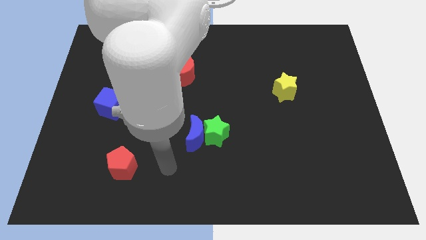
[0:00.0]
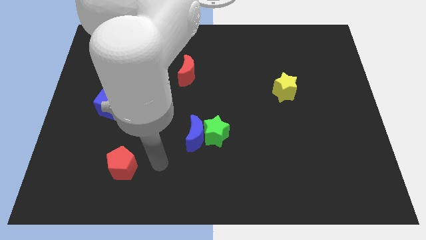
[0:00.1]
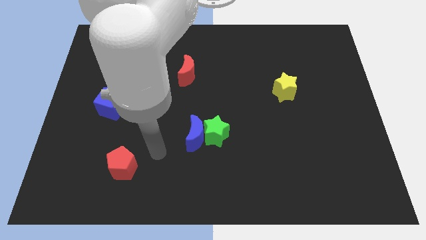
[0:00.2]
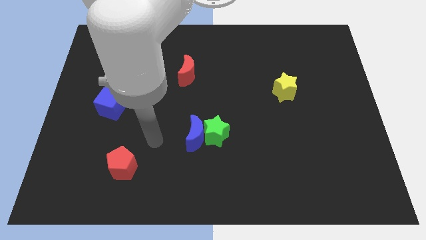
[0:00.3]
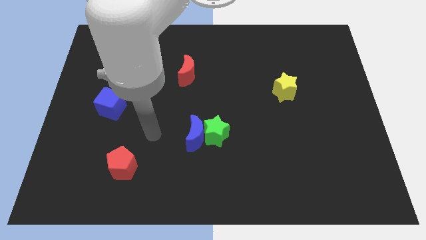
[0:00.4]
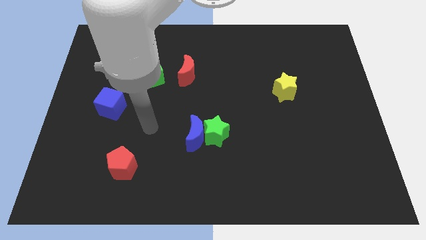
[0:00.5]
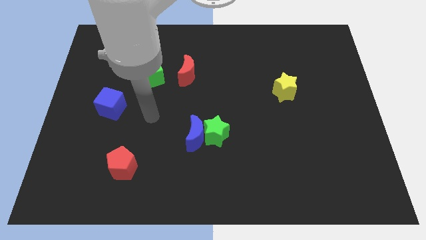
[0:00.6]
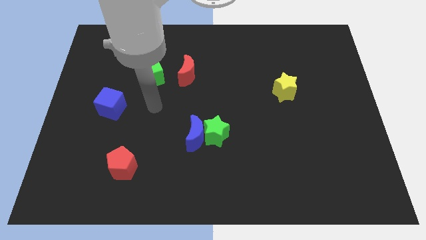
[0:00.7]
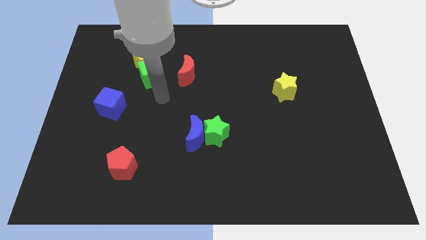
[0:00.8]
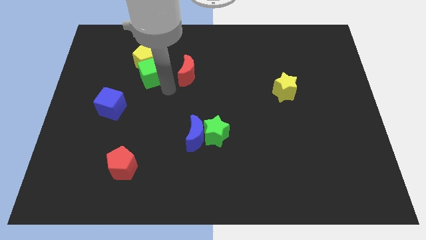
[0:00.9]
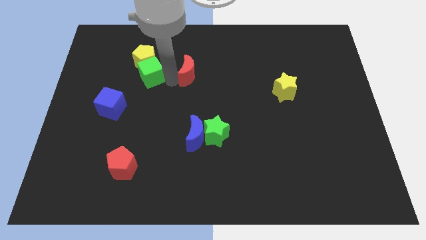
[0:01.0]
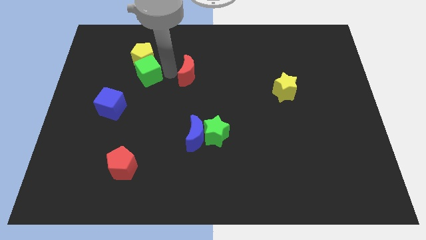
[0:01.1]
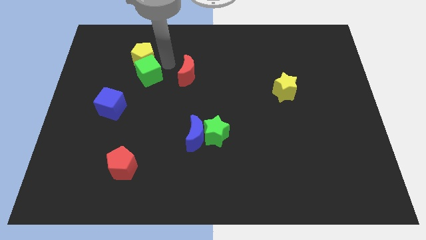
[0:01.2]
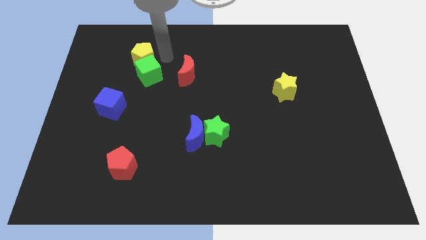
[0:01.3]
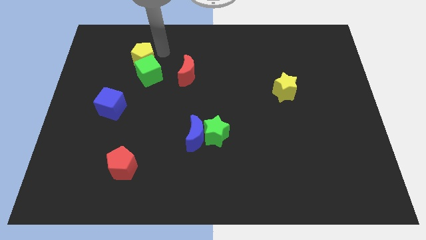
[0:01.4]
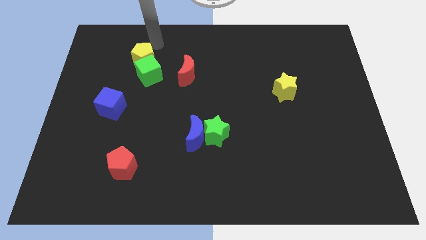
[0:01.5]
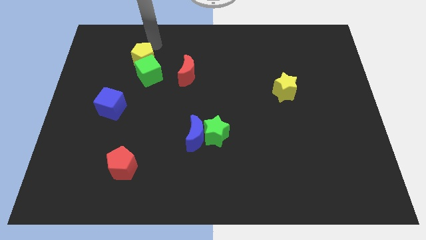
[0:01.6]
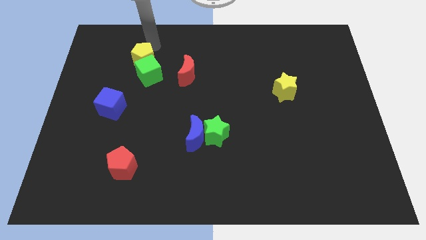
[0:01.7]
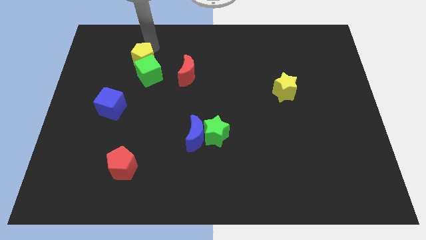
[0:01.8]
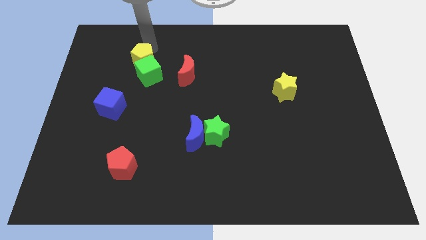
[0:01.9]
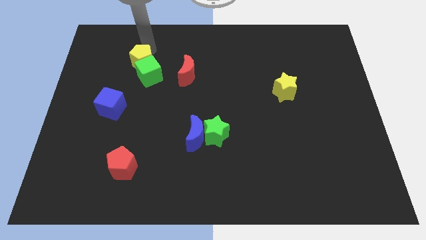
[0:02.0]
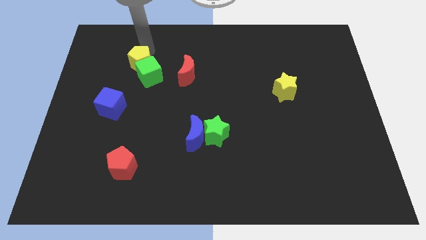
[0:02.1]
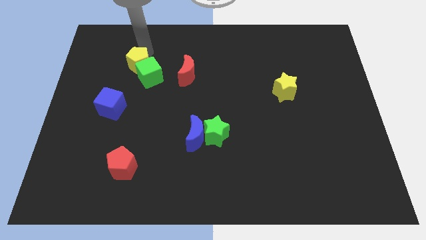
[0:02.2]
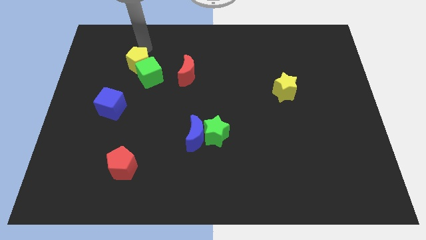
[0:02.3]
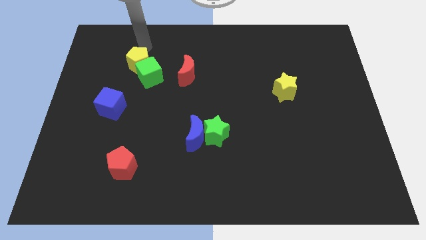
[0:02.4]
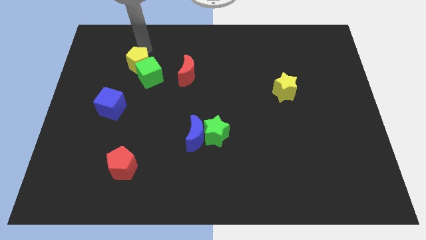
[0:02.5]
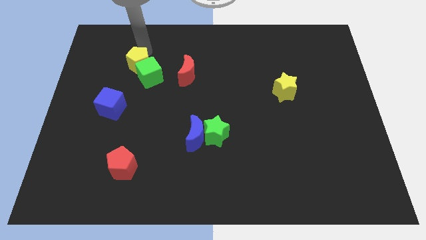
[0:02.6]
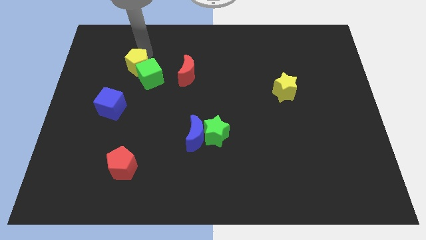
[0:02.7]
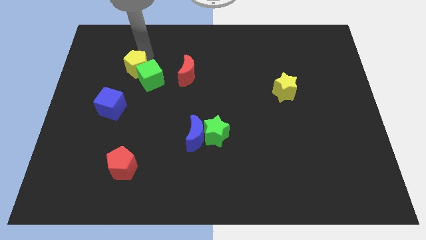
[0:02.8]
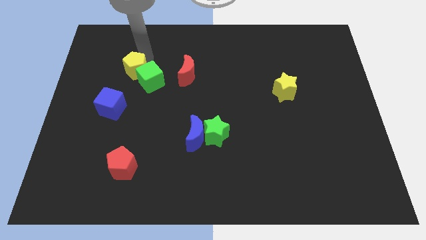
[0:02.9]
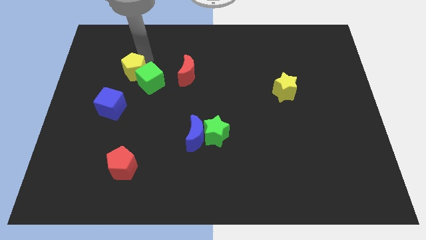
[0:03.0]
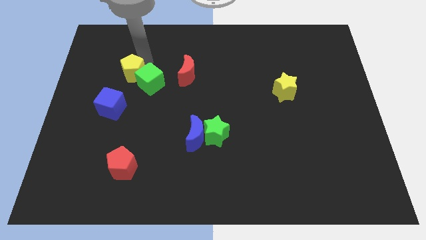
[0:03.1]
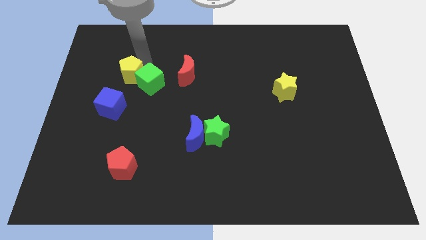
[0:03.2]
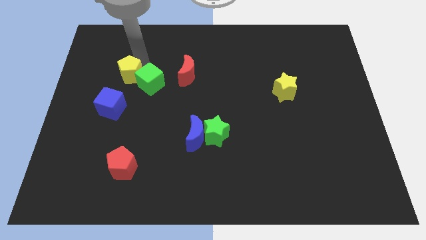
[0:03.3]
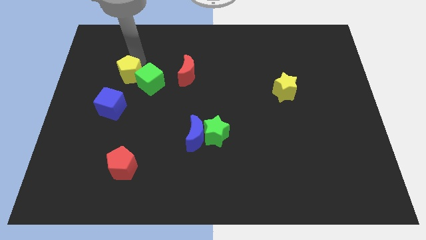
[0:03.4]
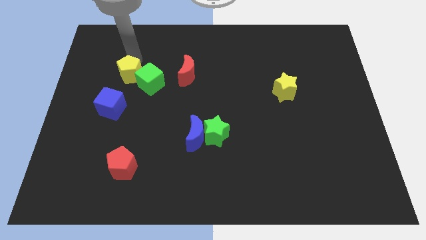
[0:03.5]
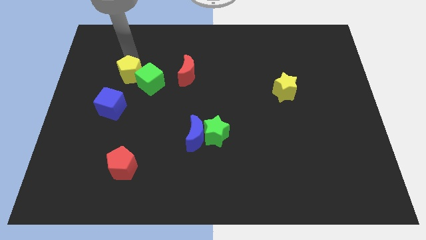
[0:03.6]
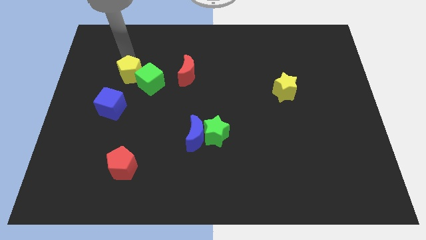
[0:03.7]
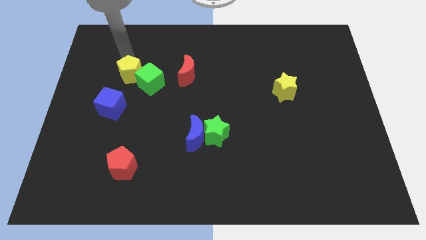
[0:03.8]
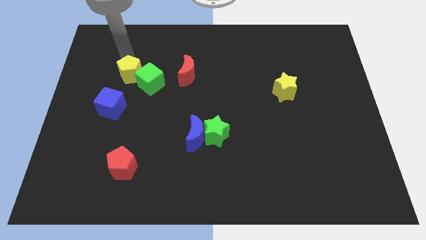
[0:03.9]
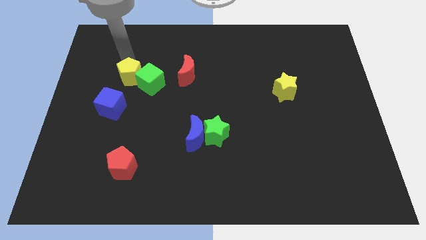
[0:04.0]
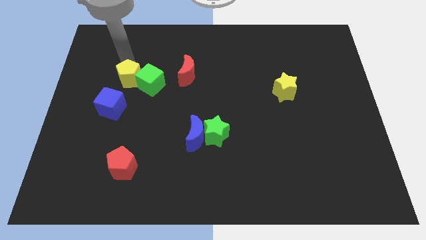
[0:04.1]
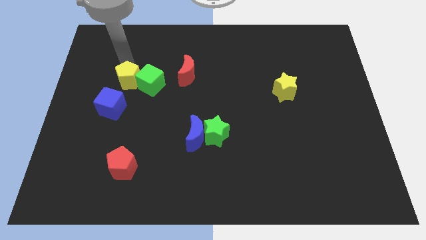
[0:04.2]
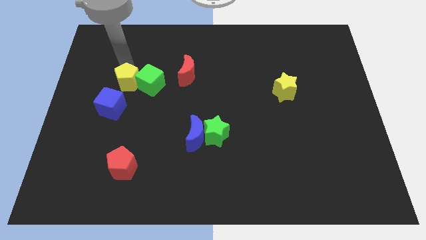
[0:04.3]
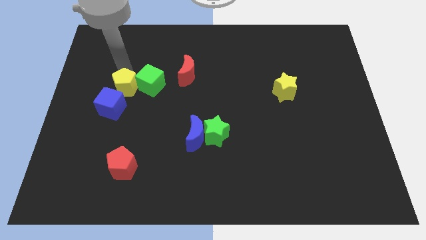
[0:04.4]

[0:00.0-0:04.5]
move the yellow pentagon downwards slightly

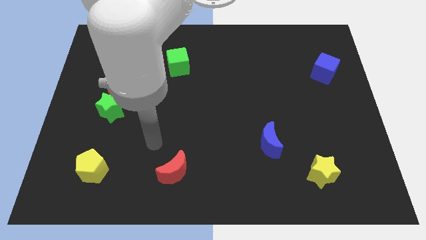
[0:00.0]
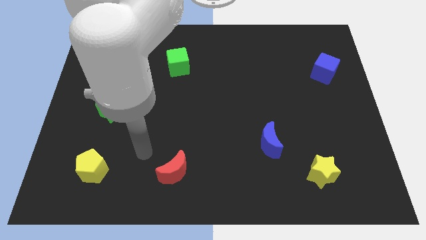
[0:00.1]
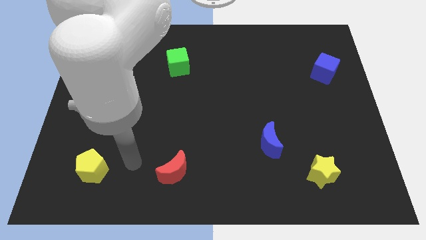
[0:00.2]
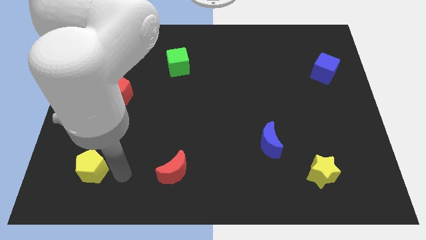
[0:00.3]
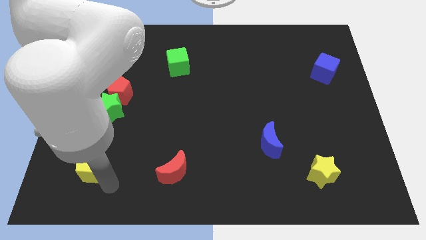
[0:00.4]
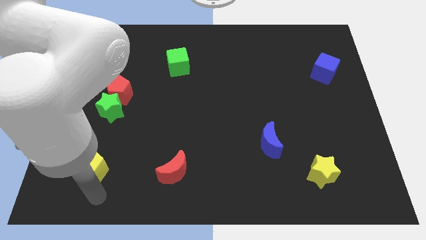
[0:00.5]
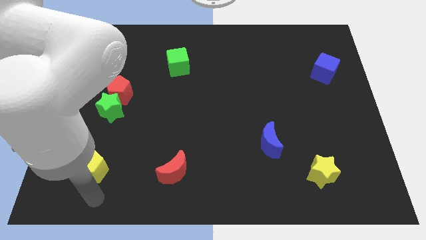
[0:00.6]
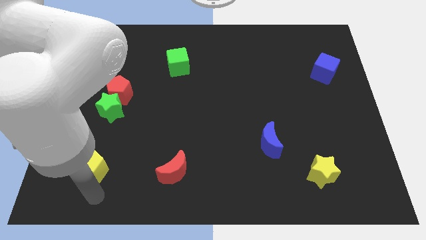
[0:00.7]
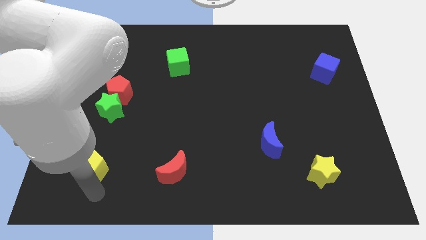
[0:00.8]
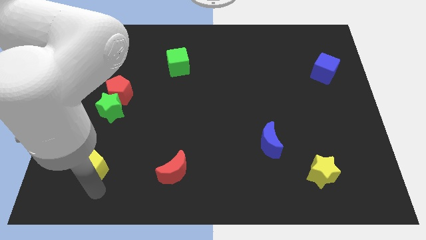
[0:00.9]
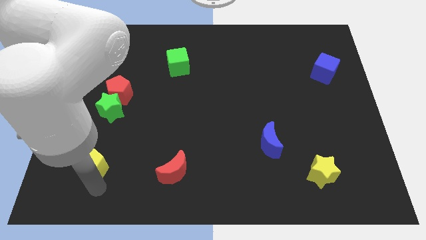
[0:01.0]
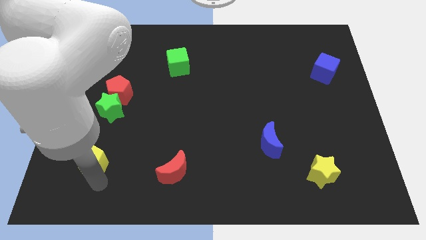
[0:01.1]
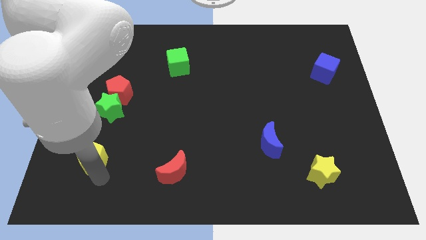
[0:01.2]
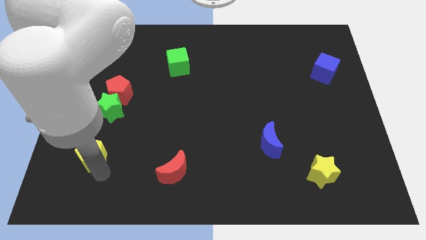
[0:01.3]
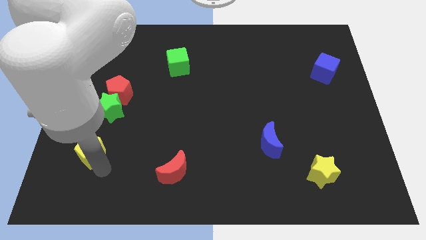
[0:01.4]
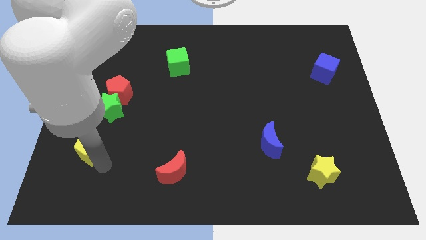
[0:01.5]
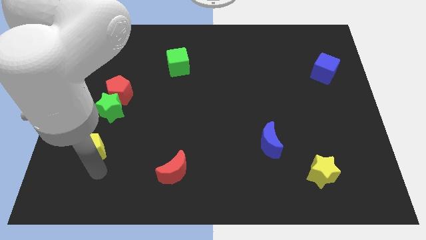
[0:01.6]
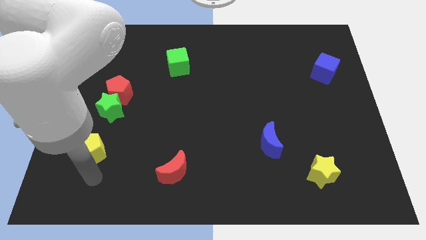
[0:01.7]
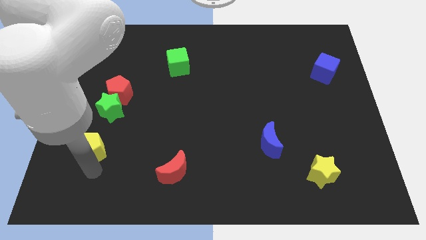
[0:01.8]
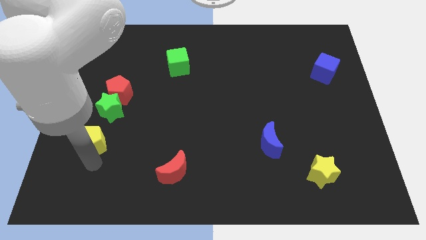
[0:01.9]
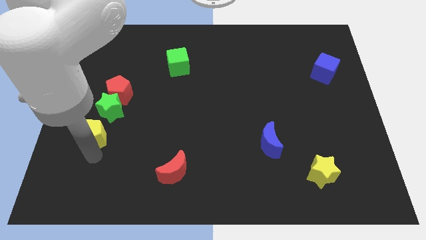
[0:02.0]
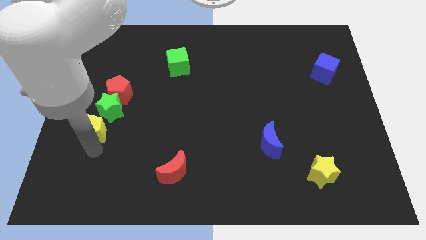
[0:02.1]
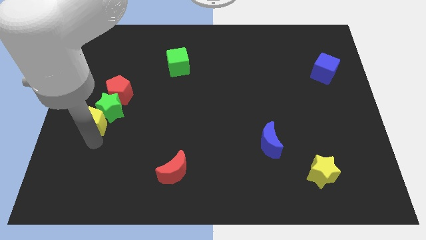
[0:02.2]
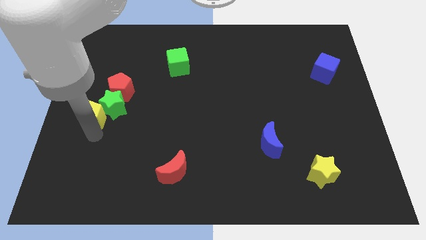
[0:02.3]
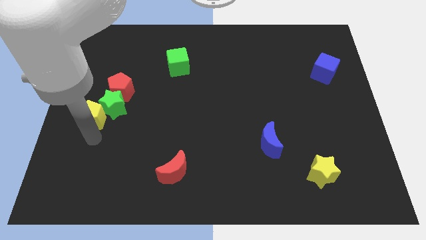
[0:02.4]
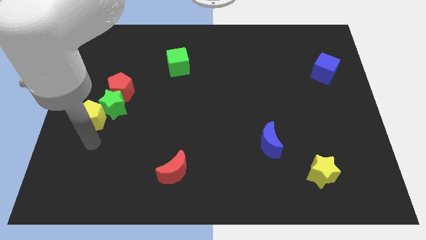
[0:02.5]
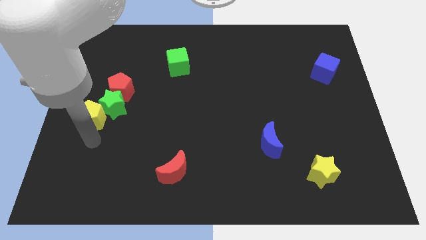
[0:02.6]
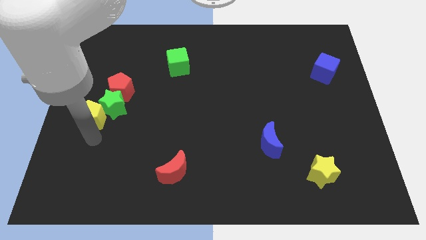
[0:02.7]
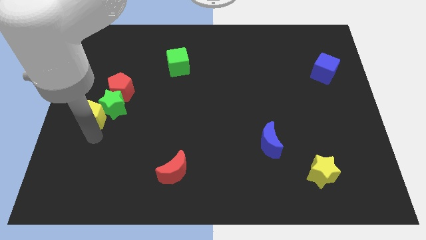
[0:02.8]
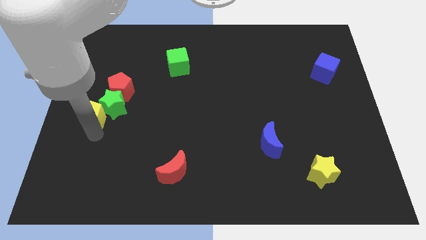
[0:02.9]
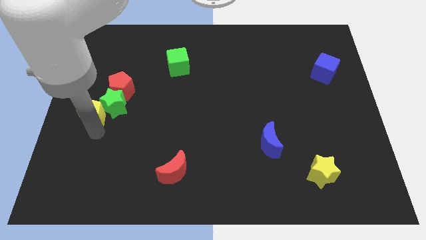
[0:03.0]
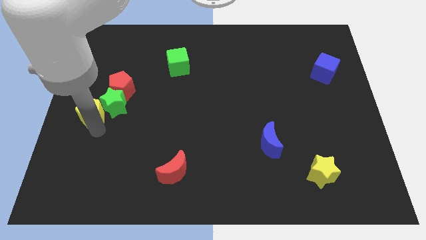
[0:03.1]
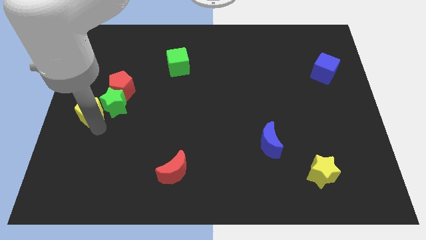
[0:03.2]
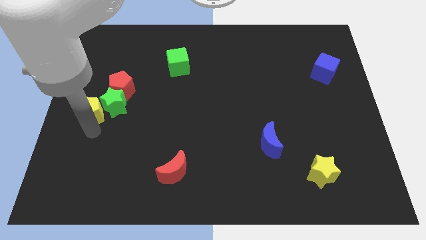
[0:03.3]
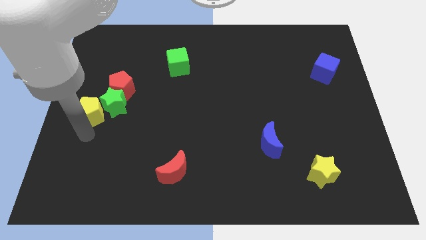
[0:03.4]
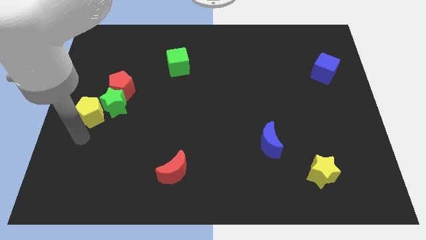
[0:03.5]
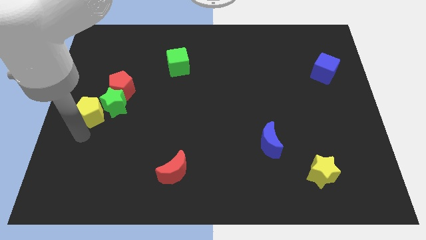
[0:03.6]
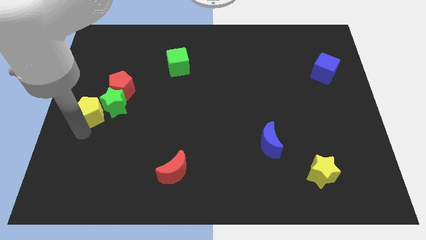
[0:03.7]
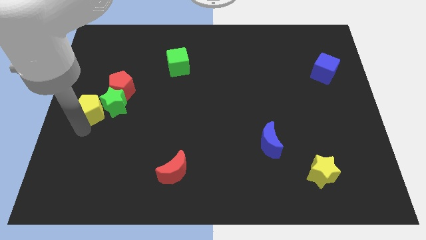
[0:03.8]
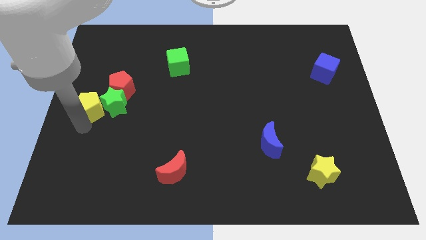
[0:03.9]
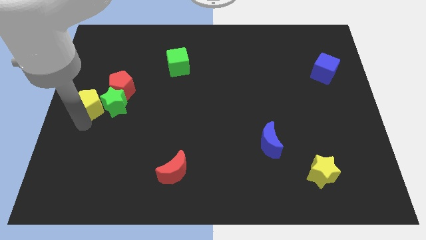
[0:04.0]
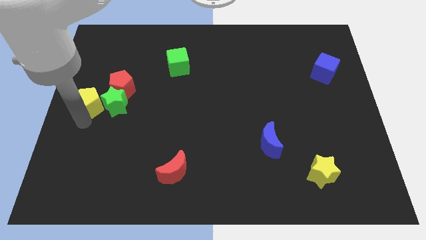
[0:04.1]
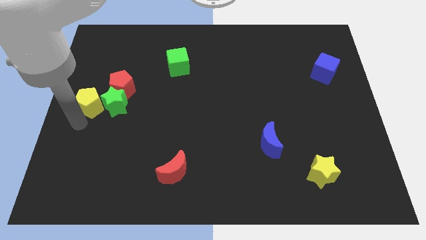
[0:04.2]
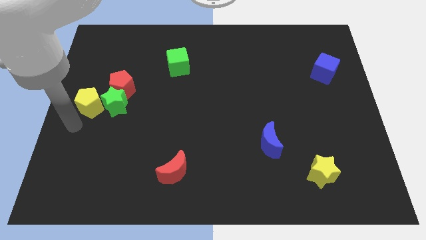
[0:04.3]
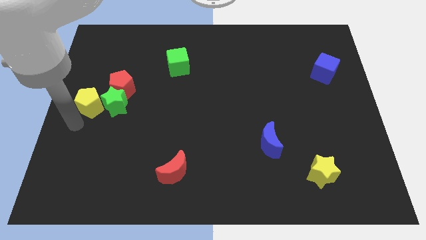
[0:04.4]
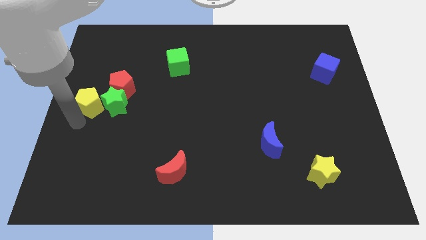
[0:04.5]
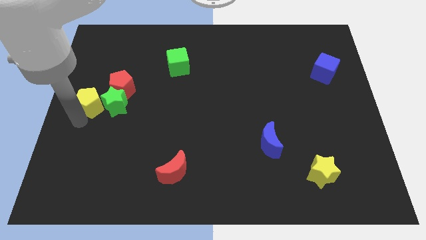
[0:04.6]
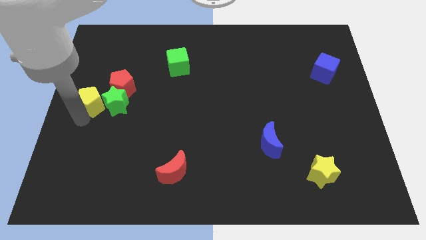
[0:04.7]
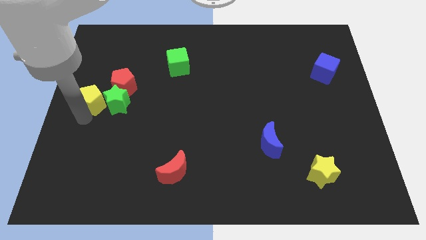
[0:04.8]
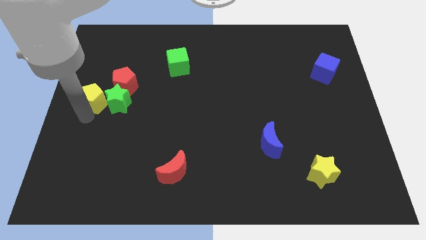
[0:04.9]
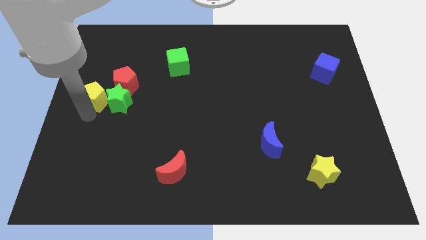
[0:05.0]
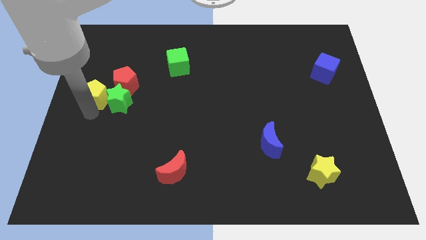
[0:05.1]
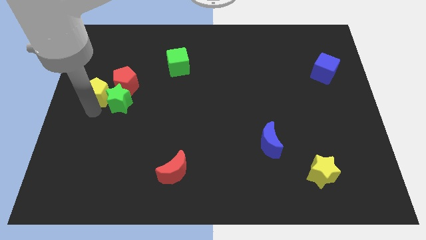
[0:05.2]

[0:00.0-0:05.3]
slide the yellow pentagon upwards
